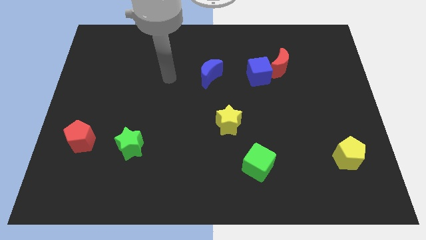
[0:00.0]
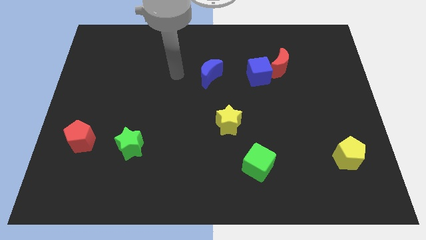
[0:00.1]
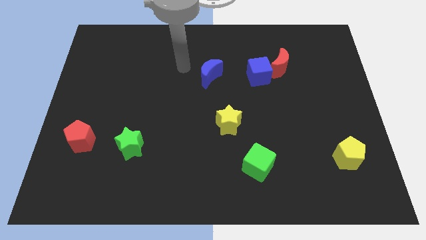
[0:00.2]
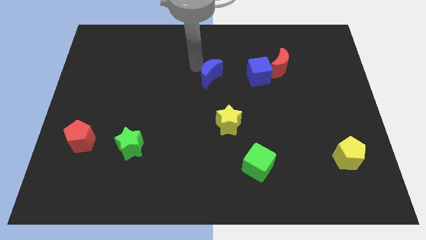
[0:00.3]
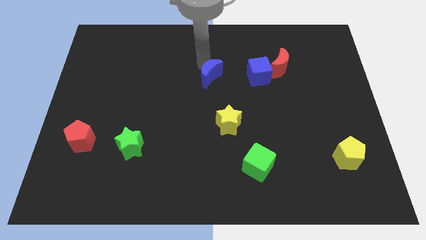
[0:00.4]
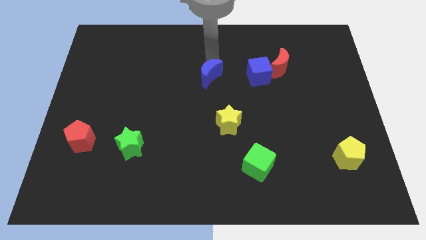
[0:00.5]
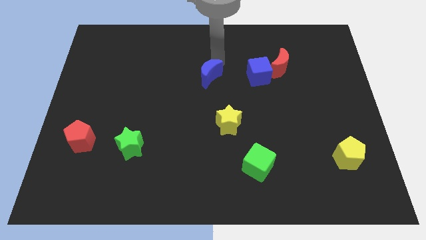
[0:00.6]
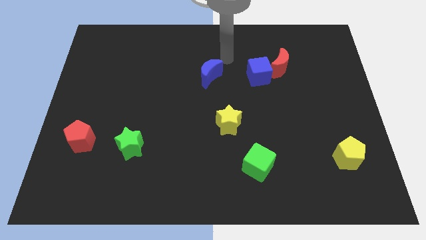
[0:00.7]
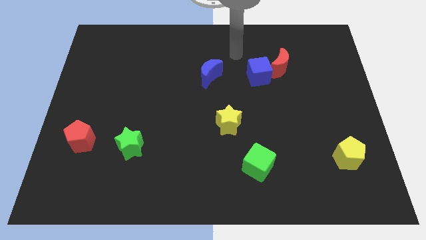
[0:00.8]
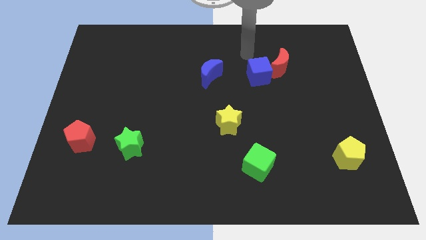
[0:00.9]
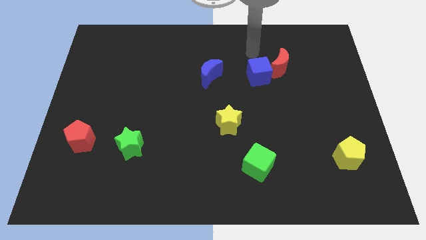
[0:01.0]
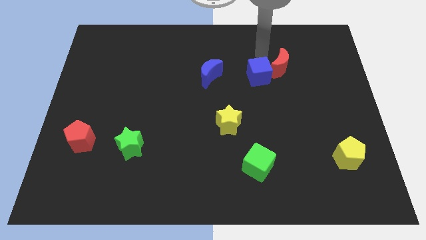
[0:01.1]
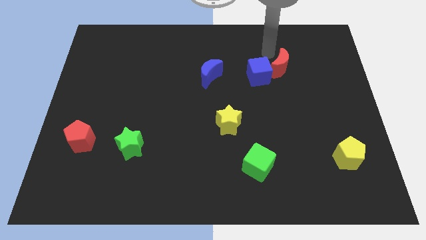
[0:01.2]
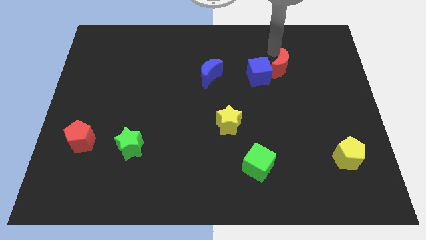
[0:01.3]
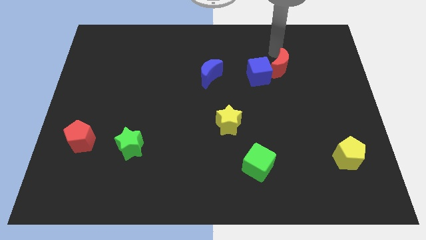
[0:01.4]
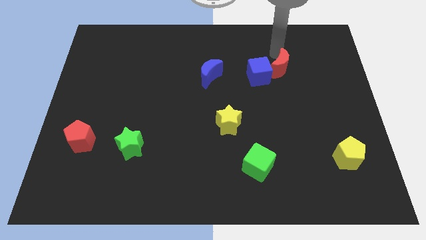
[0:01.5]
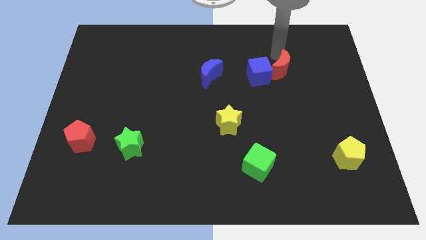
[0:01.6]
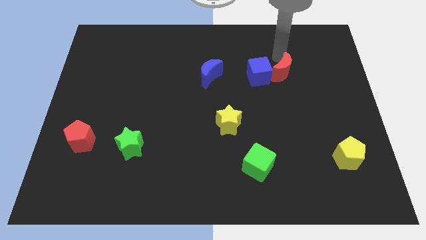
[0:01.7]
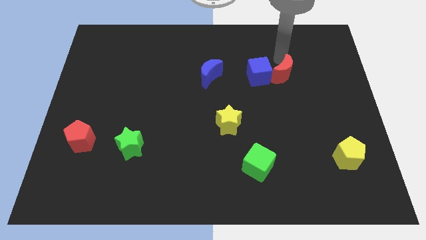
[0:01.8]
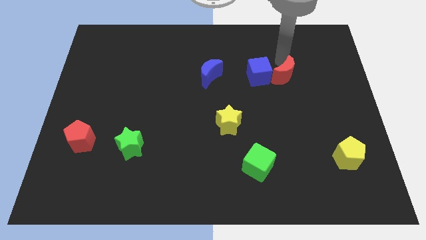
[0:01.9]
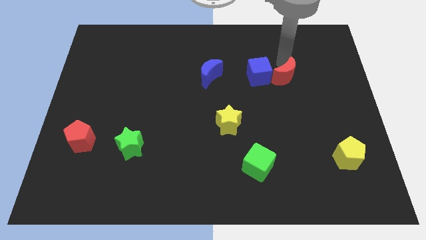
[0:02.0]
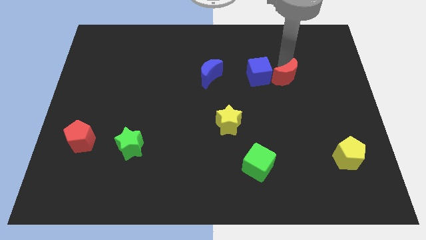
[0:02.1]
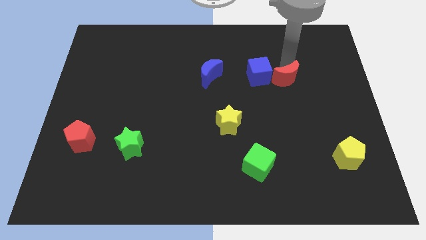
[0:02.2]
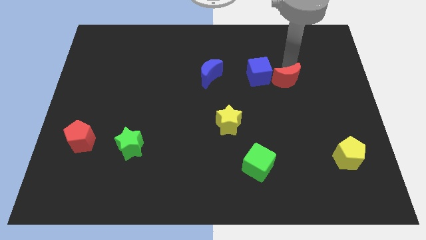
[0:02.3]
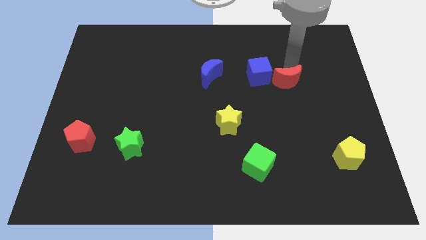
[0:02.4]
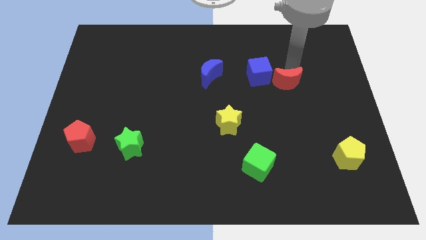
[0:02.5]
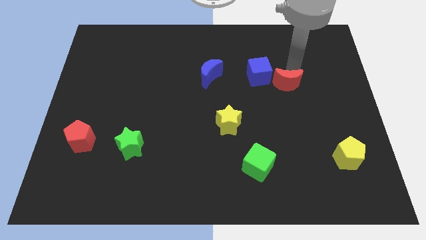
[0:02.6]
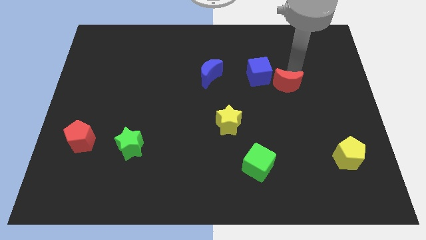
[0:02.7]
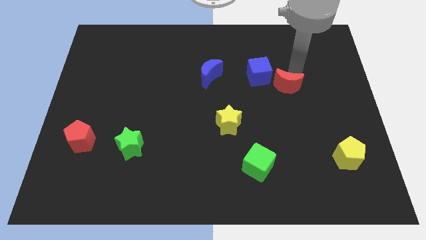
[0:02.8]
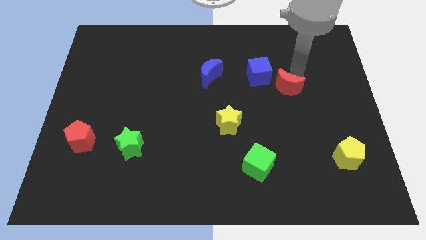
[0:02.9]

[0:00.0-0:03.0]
push the red moon downwards a bit

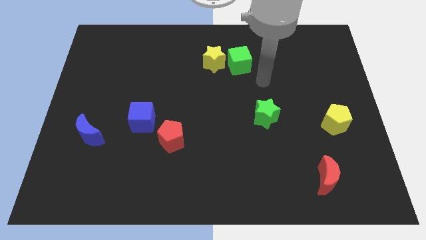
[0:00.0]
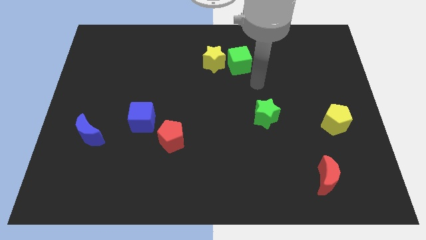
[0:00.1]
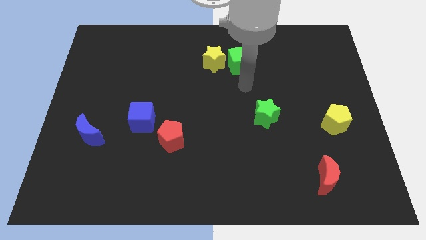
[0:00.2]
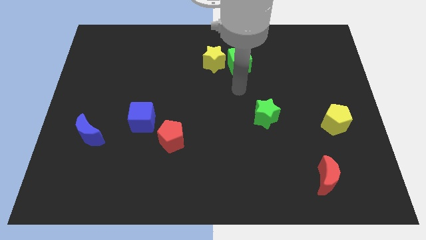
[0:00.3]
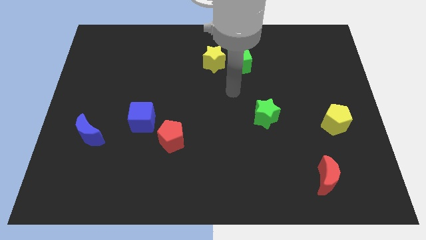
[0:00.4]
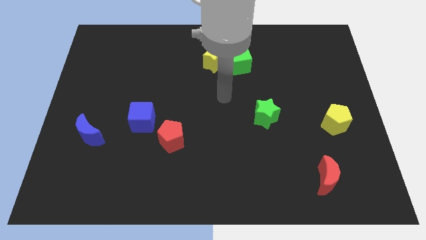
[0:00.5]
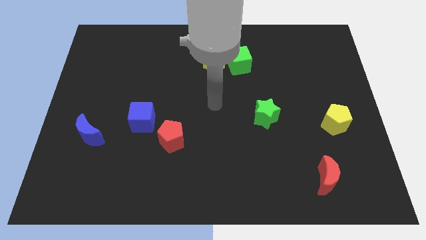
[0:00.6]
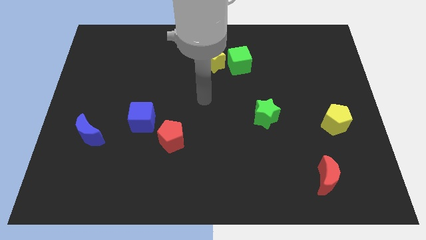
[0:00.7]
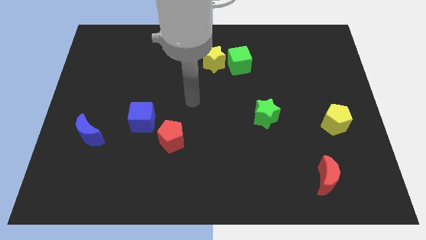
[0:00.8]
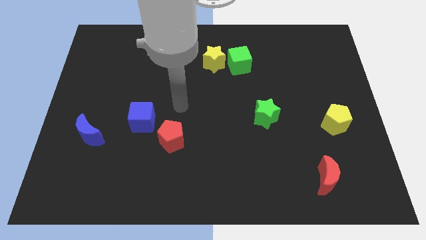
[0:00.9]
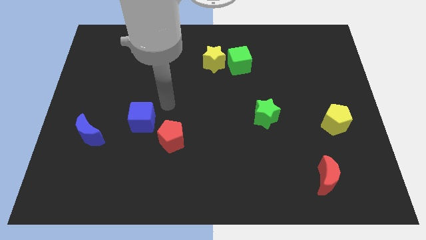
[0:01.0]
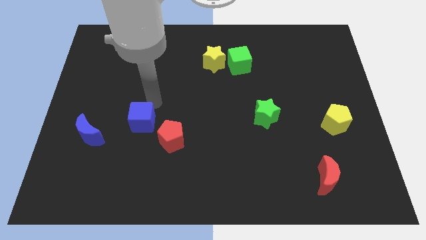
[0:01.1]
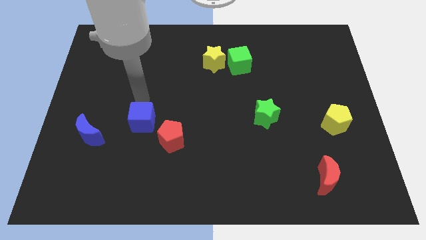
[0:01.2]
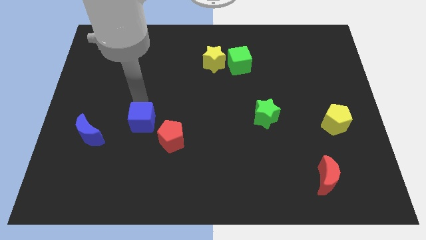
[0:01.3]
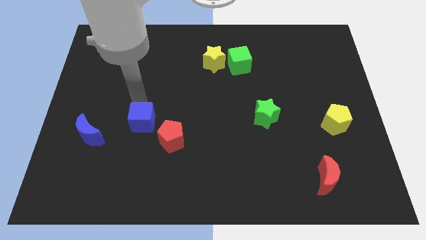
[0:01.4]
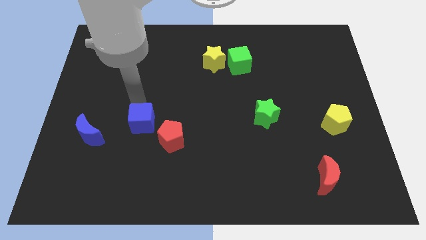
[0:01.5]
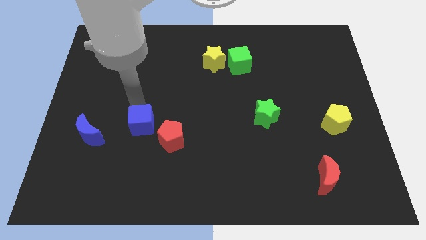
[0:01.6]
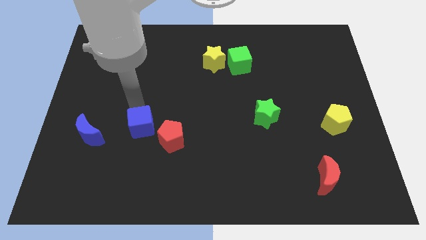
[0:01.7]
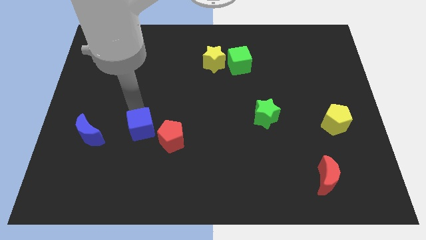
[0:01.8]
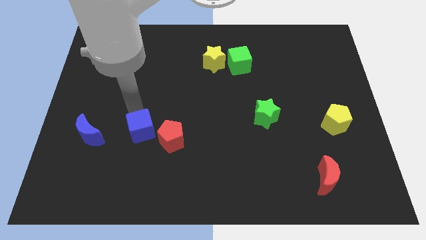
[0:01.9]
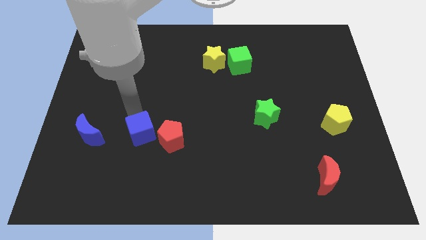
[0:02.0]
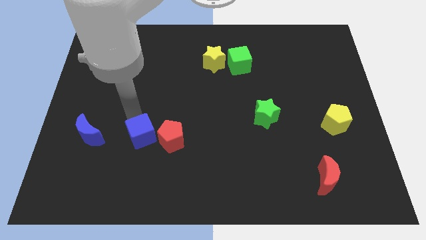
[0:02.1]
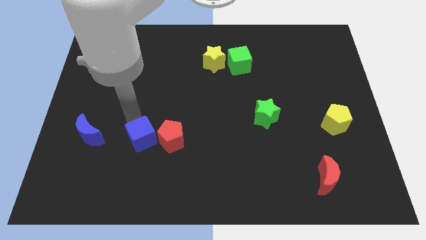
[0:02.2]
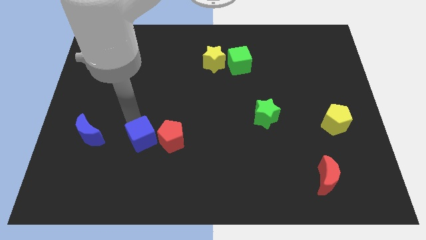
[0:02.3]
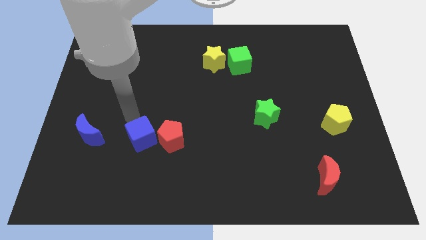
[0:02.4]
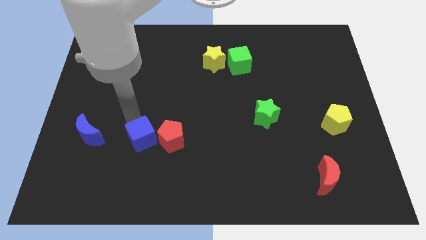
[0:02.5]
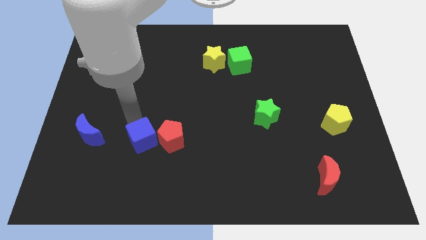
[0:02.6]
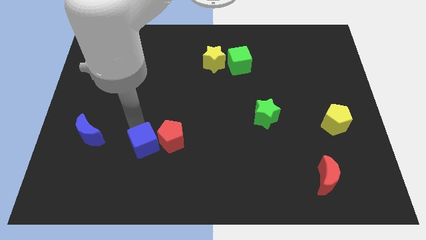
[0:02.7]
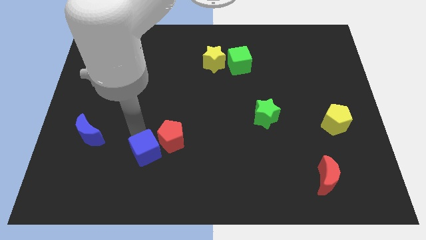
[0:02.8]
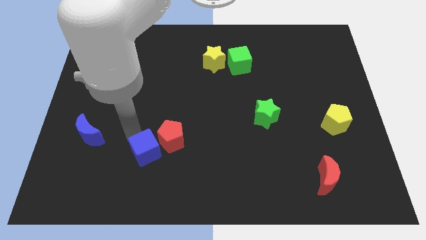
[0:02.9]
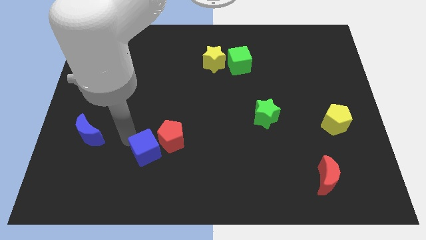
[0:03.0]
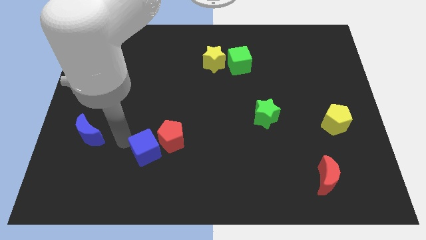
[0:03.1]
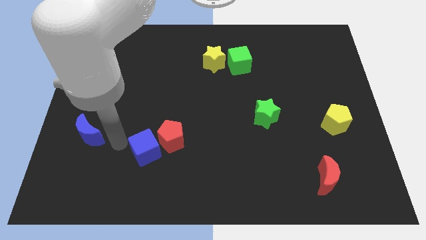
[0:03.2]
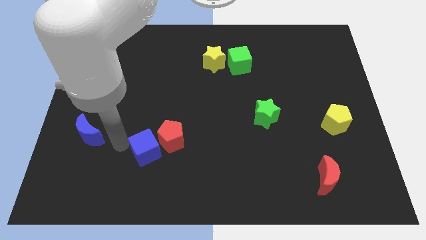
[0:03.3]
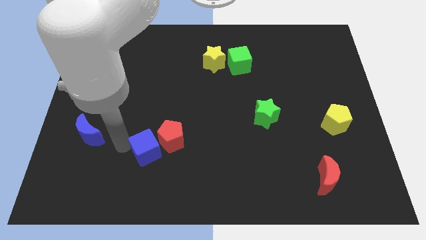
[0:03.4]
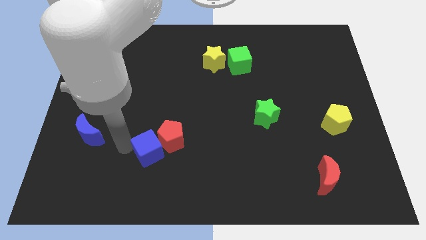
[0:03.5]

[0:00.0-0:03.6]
push the blue cube down and then right a little

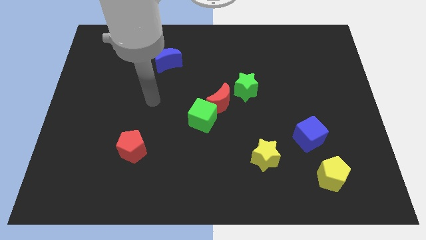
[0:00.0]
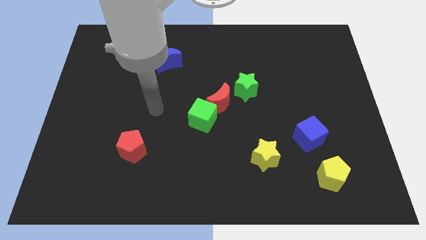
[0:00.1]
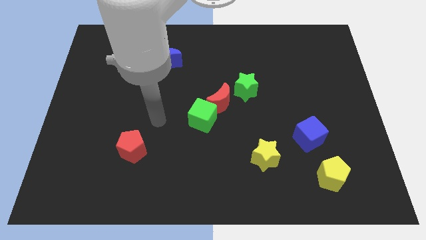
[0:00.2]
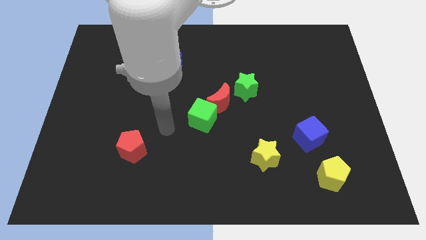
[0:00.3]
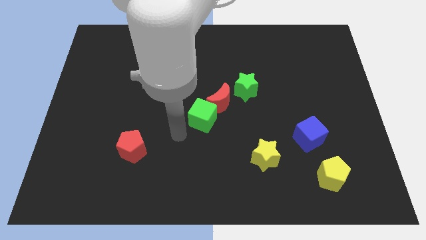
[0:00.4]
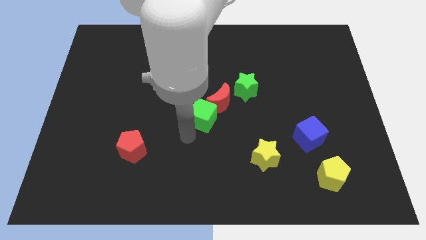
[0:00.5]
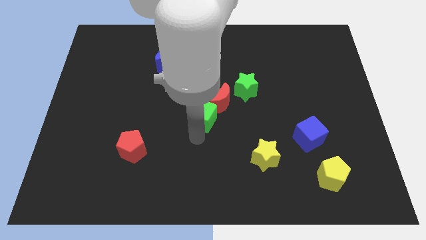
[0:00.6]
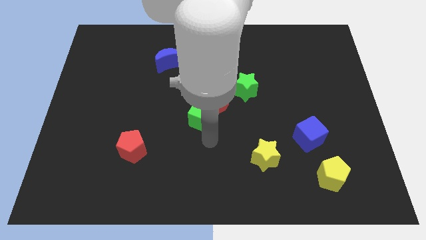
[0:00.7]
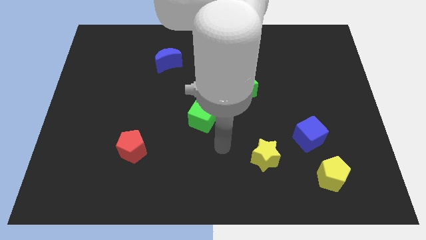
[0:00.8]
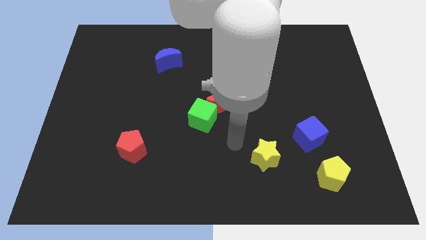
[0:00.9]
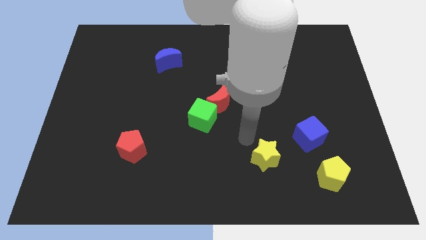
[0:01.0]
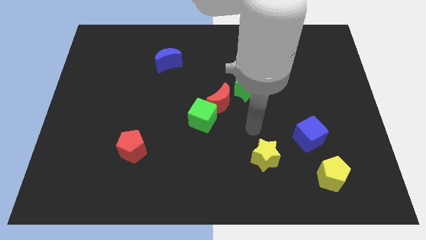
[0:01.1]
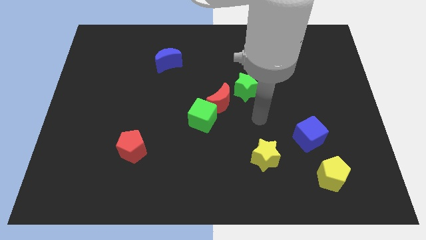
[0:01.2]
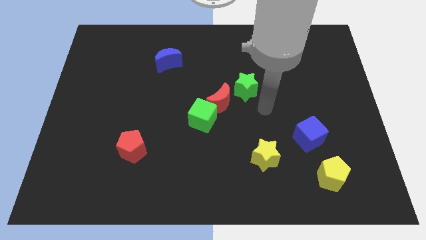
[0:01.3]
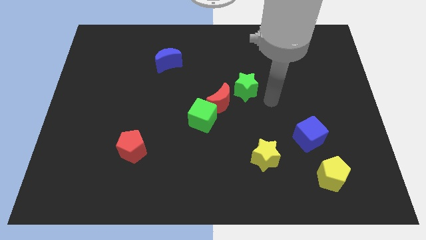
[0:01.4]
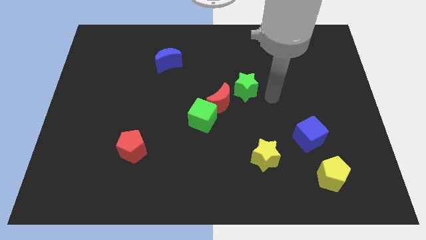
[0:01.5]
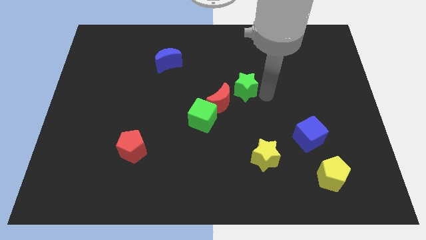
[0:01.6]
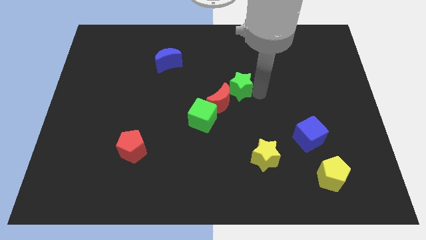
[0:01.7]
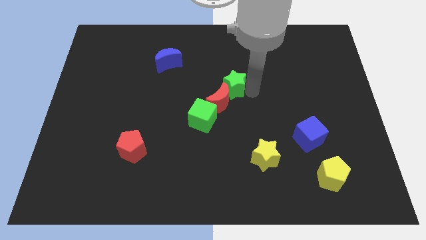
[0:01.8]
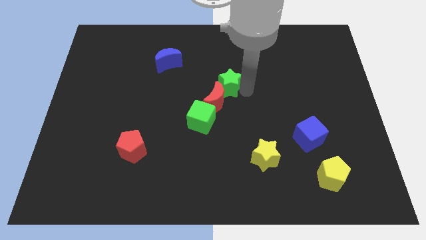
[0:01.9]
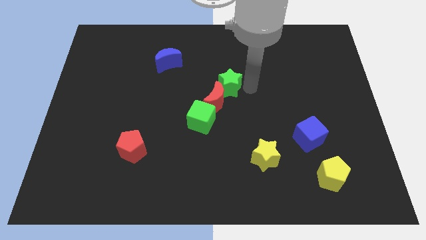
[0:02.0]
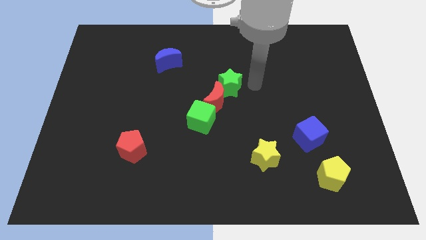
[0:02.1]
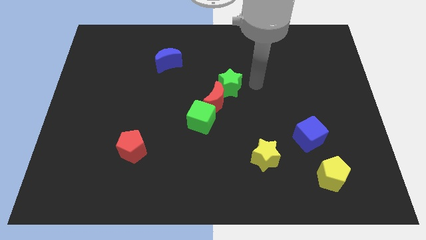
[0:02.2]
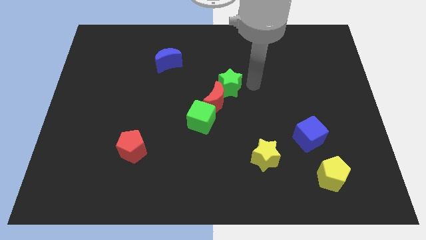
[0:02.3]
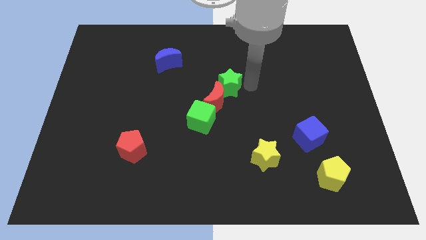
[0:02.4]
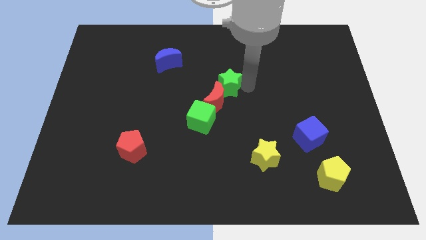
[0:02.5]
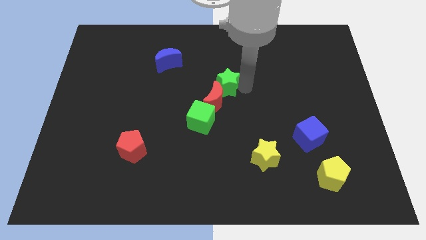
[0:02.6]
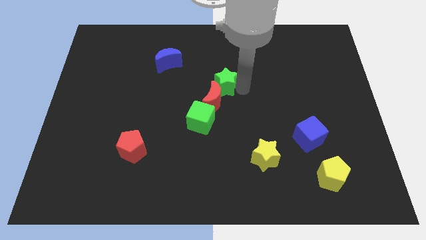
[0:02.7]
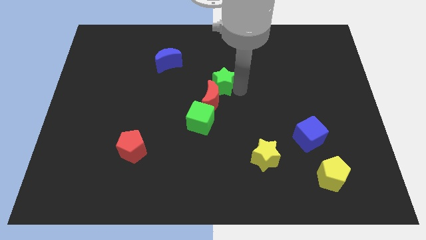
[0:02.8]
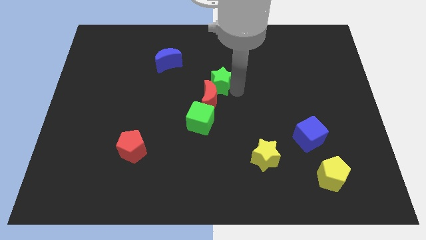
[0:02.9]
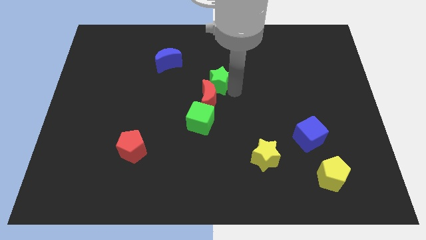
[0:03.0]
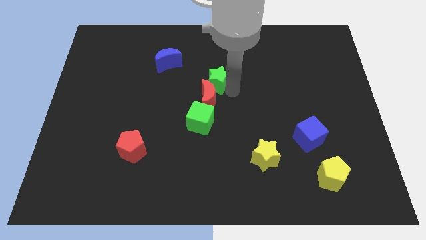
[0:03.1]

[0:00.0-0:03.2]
push the green star a bit left
